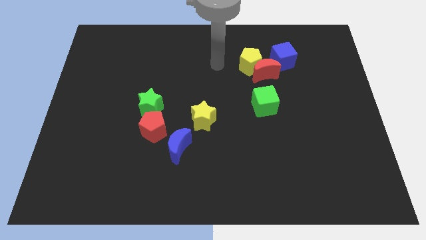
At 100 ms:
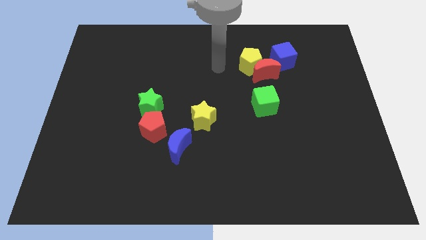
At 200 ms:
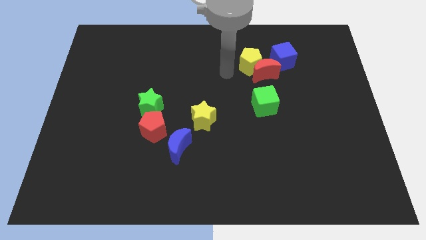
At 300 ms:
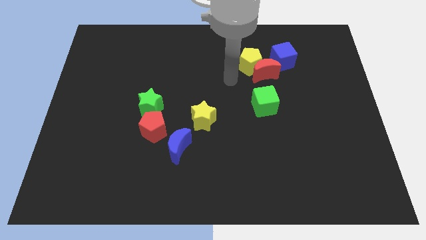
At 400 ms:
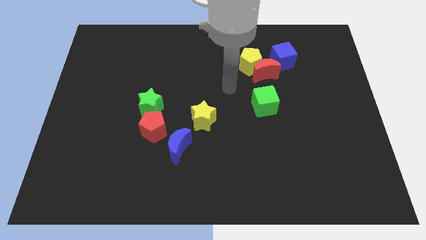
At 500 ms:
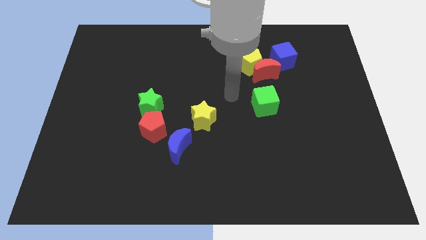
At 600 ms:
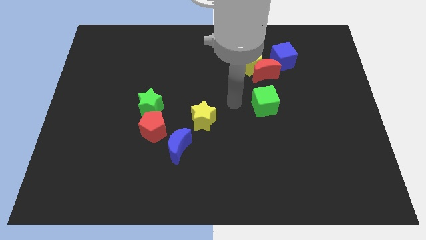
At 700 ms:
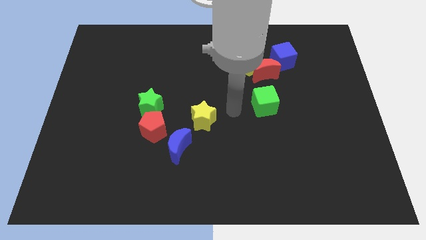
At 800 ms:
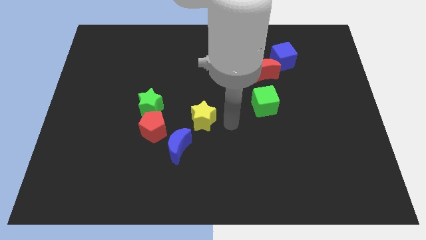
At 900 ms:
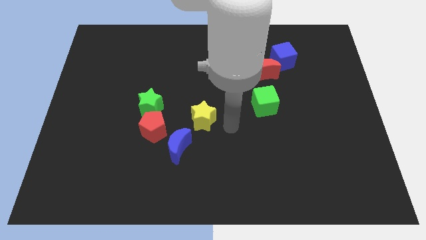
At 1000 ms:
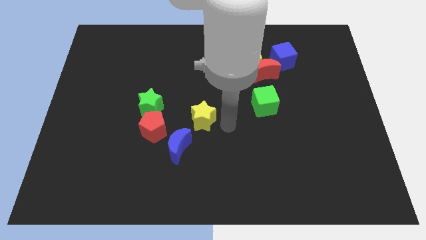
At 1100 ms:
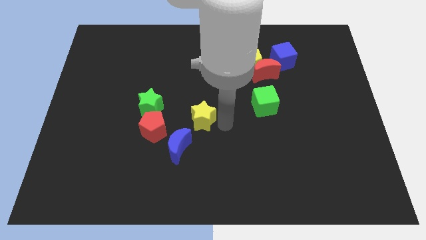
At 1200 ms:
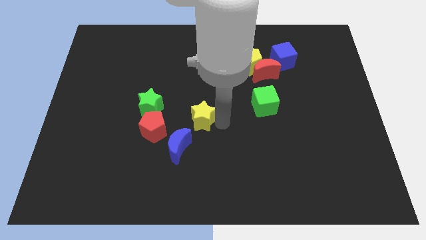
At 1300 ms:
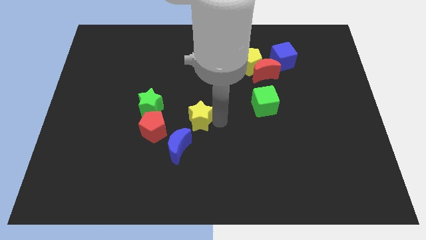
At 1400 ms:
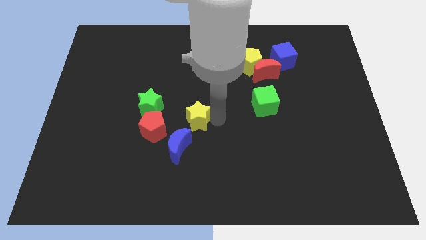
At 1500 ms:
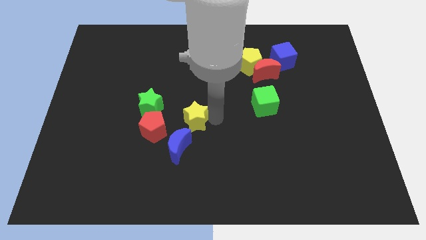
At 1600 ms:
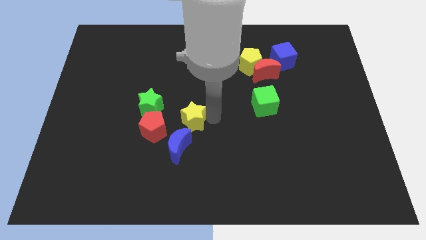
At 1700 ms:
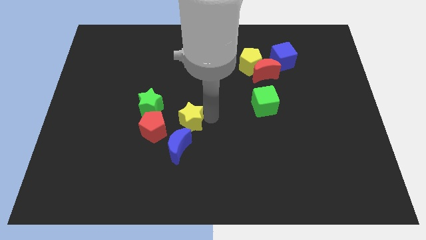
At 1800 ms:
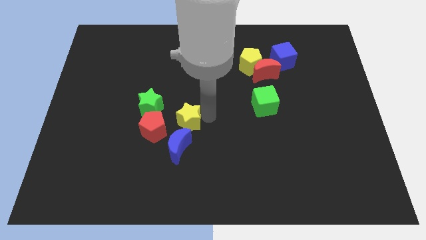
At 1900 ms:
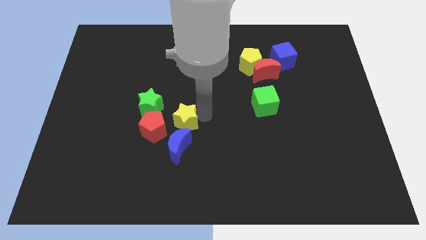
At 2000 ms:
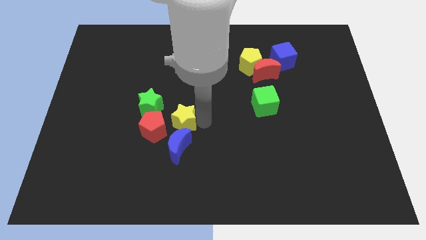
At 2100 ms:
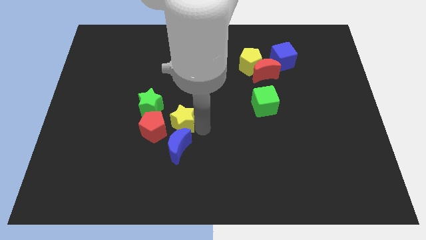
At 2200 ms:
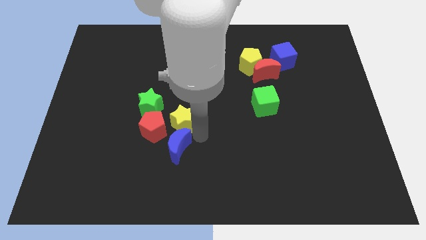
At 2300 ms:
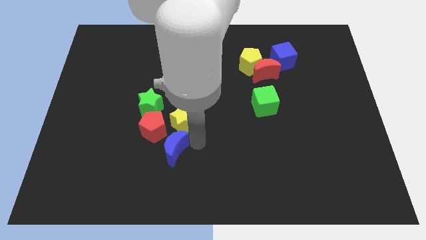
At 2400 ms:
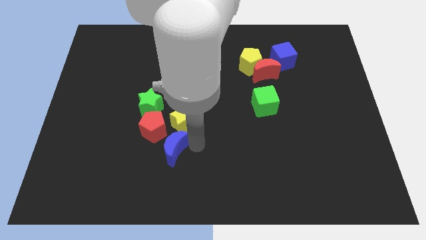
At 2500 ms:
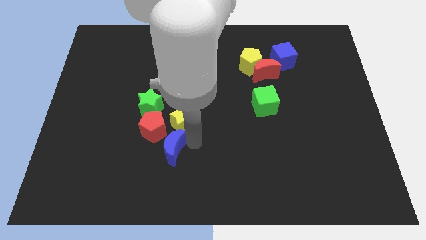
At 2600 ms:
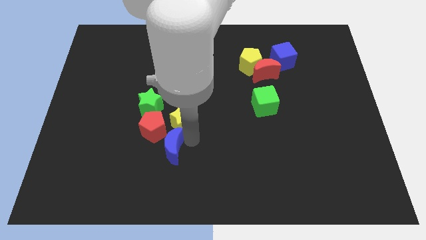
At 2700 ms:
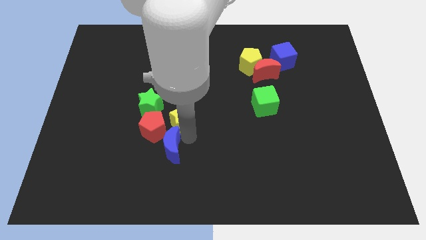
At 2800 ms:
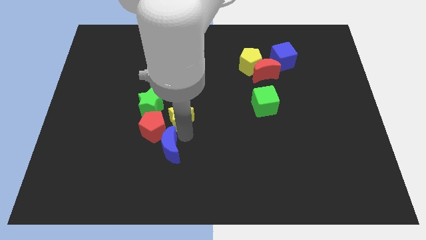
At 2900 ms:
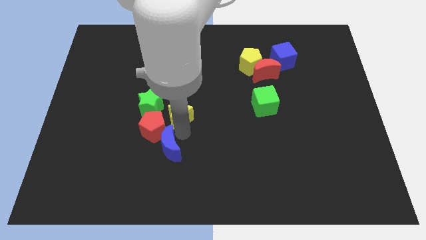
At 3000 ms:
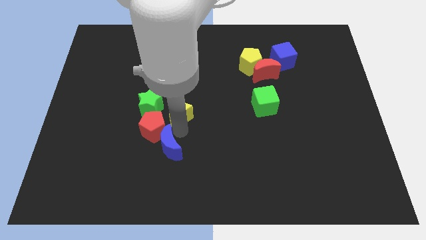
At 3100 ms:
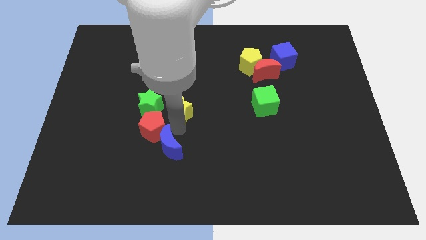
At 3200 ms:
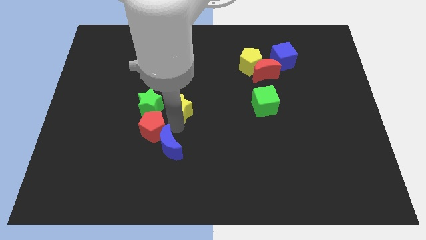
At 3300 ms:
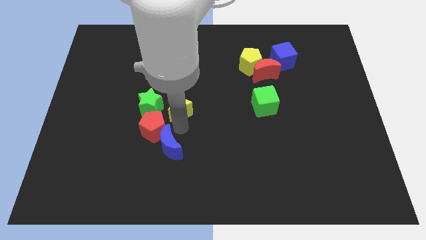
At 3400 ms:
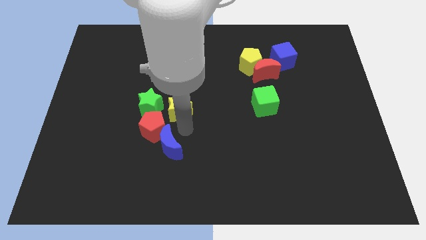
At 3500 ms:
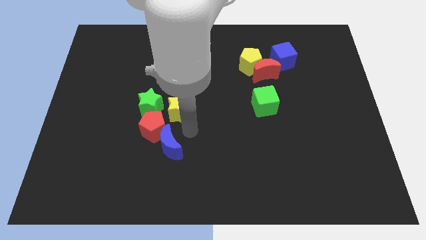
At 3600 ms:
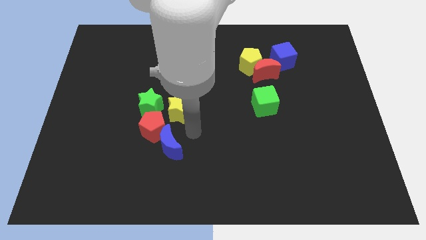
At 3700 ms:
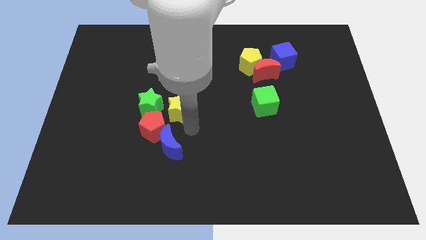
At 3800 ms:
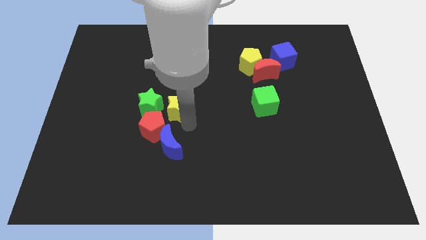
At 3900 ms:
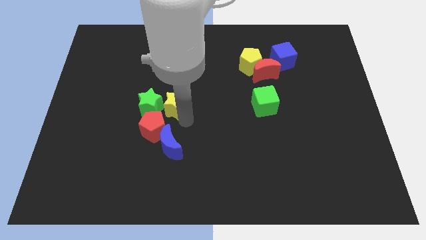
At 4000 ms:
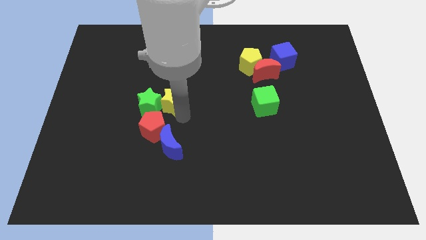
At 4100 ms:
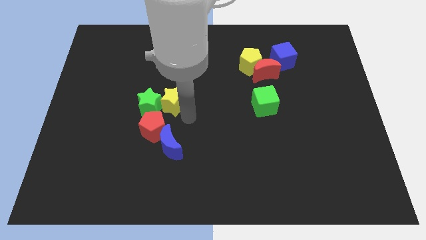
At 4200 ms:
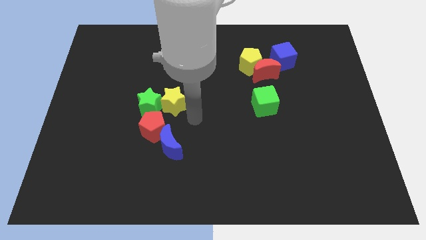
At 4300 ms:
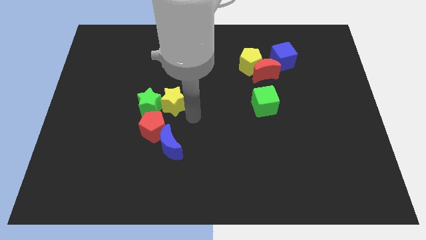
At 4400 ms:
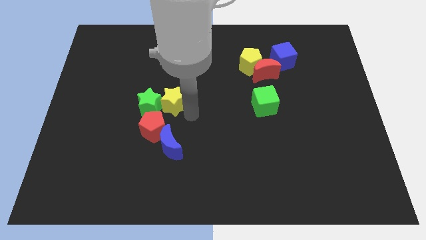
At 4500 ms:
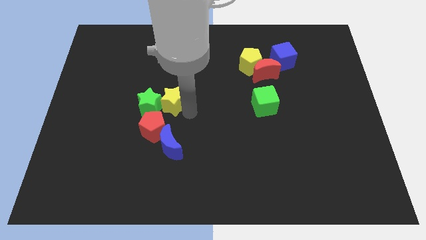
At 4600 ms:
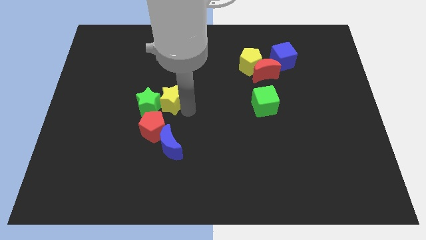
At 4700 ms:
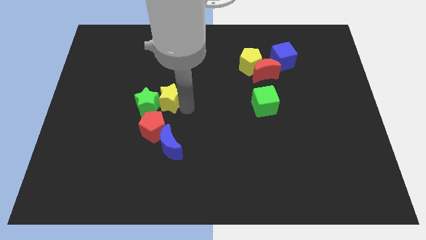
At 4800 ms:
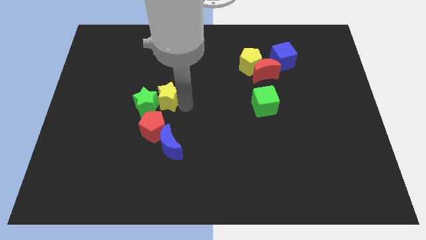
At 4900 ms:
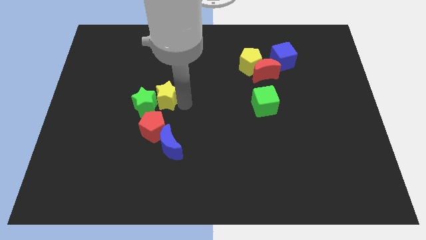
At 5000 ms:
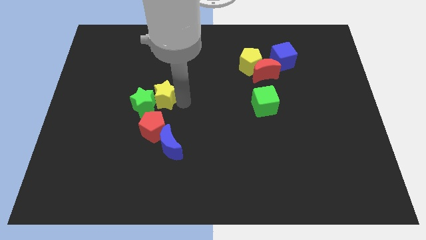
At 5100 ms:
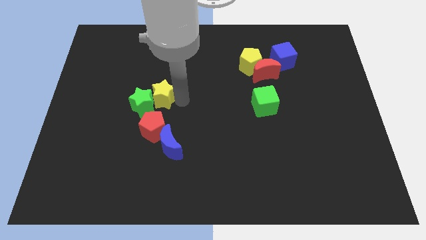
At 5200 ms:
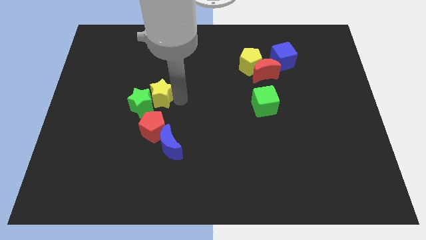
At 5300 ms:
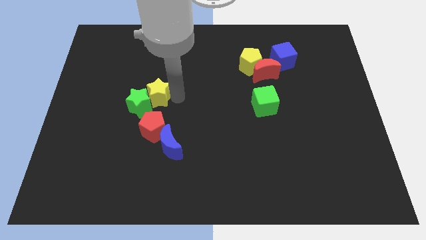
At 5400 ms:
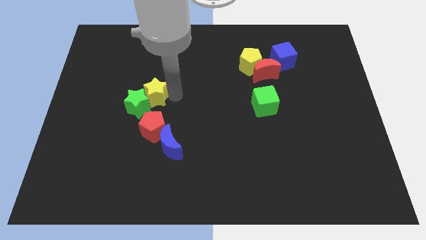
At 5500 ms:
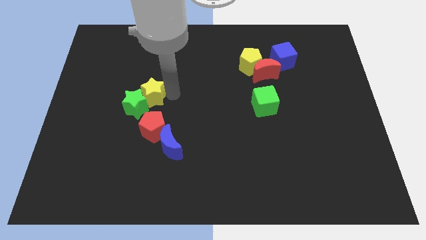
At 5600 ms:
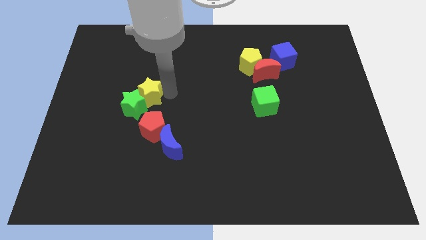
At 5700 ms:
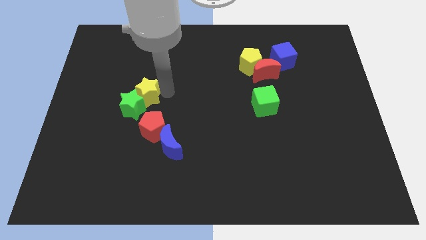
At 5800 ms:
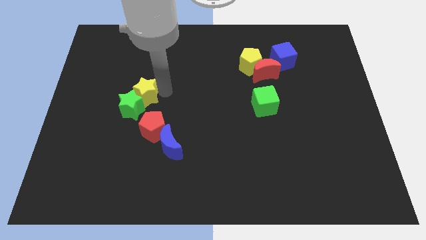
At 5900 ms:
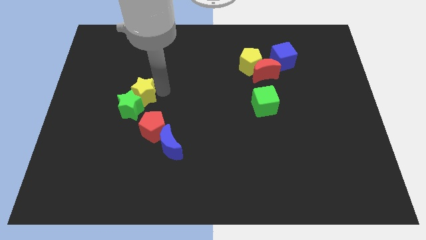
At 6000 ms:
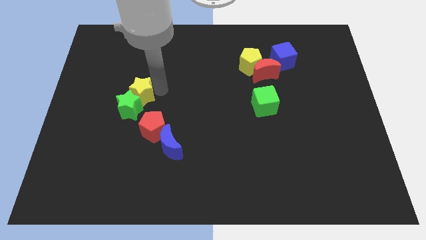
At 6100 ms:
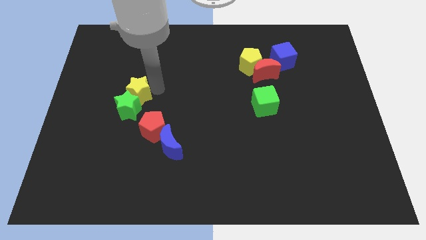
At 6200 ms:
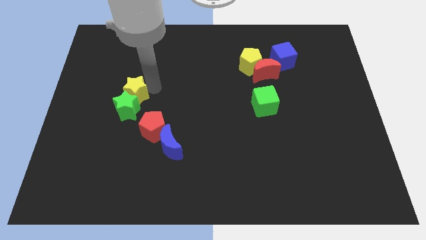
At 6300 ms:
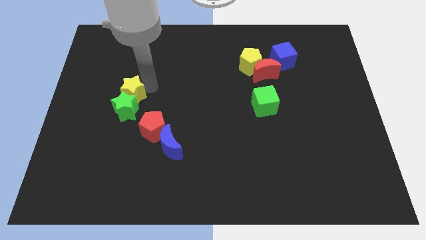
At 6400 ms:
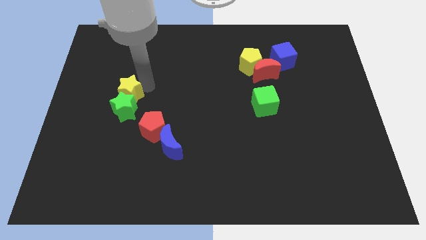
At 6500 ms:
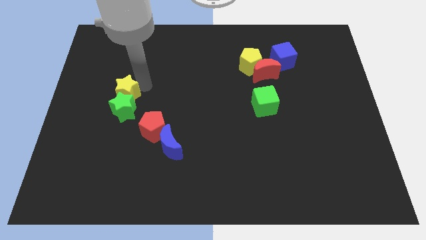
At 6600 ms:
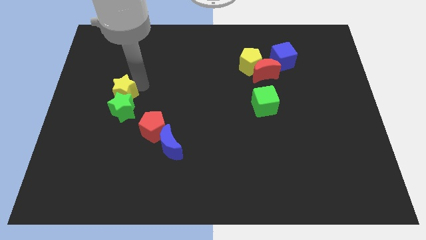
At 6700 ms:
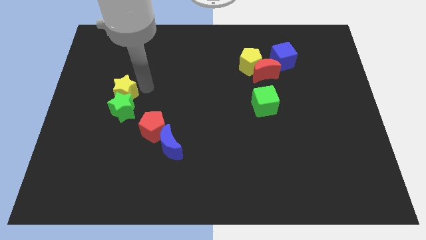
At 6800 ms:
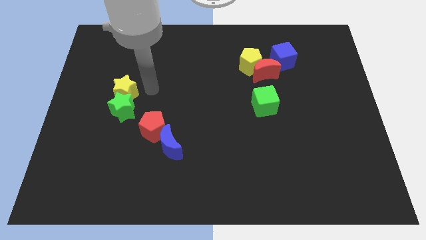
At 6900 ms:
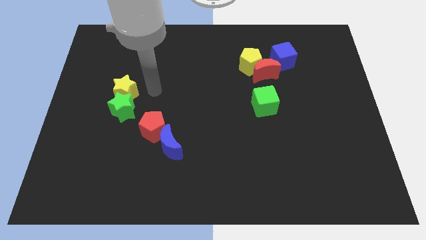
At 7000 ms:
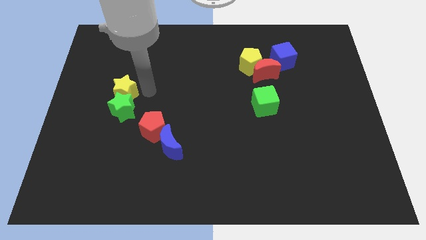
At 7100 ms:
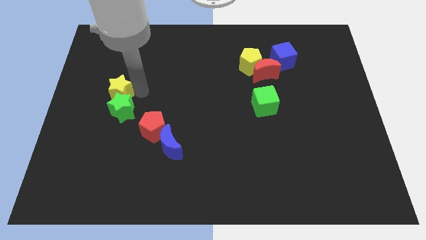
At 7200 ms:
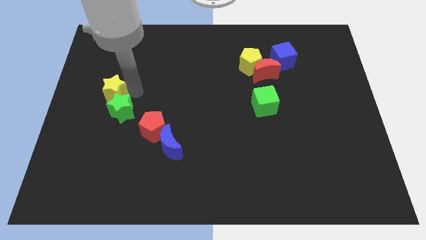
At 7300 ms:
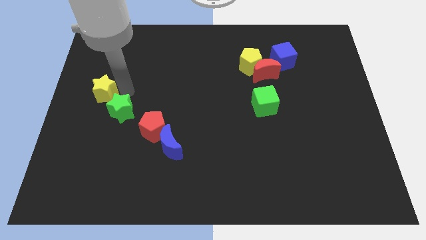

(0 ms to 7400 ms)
slide the yellow star to the center left

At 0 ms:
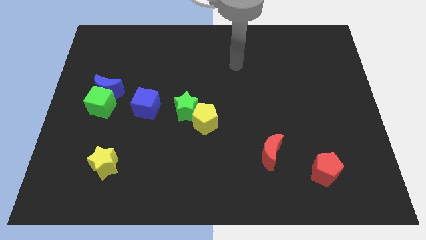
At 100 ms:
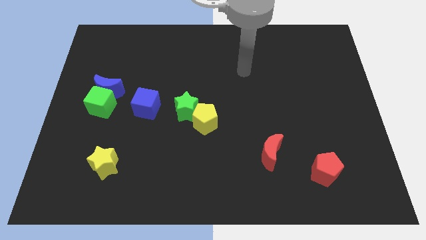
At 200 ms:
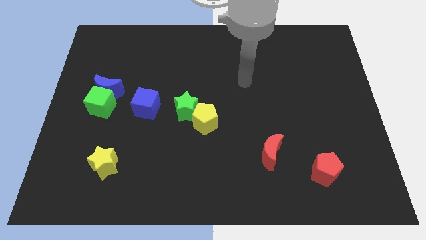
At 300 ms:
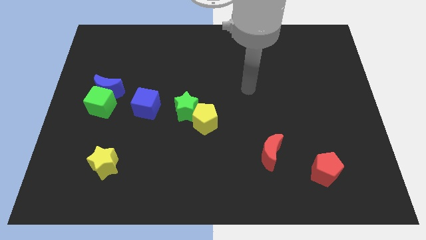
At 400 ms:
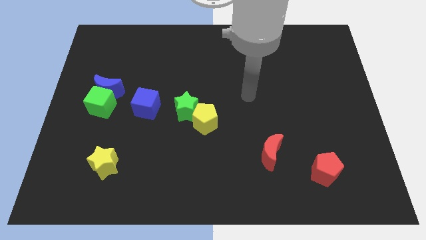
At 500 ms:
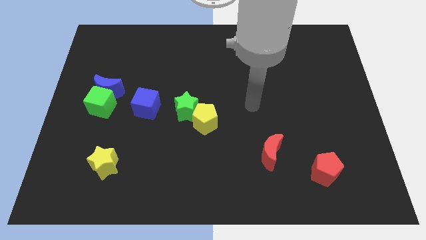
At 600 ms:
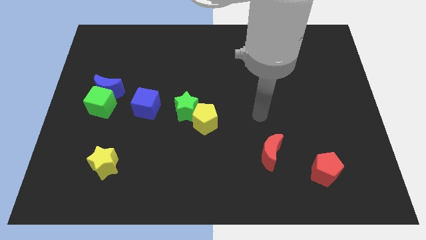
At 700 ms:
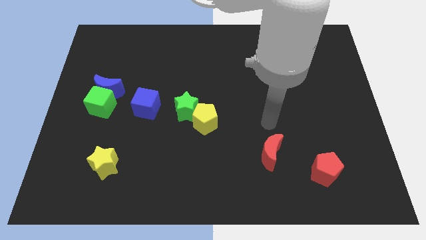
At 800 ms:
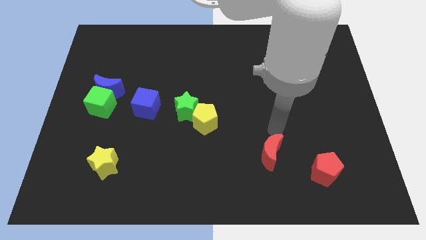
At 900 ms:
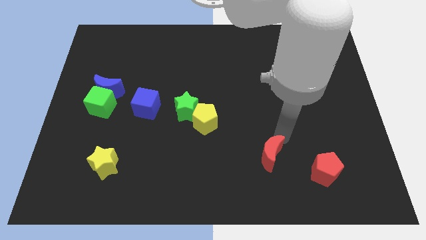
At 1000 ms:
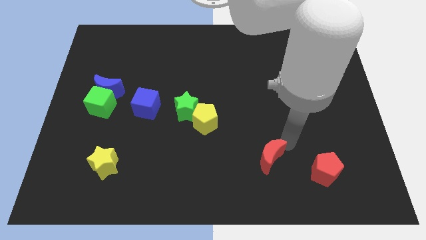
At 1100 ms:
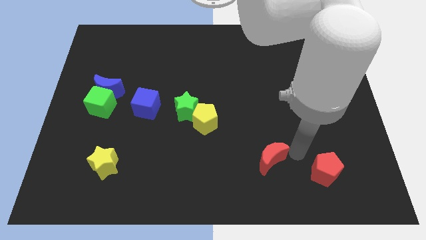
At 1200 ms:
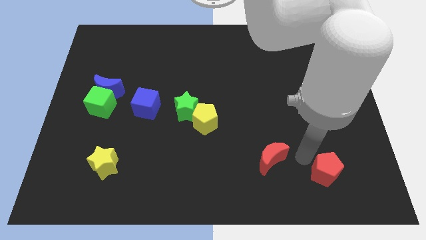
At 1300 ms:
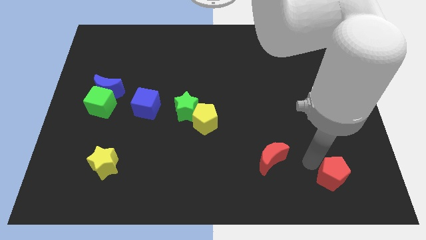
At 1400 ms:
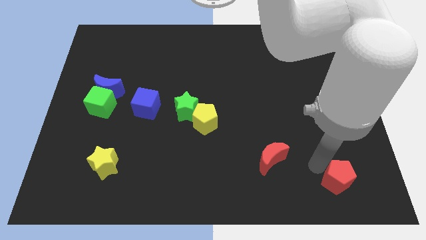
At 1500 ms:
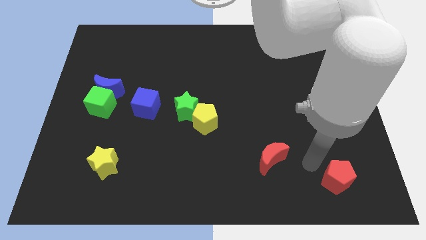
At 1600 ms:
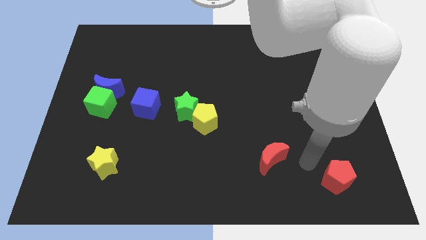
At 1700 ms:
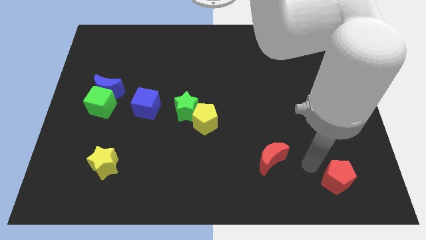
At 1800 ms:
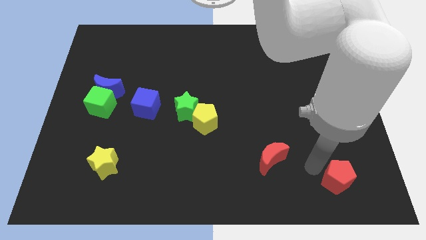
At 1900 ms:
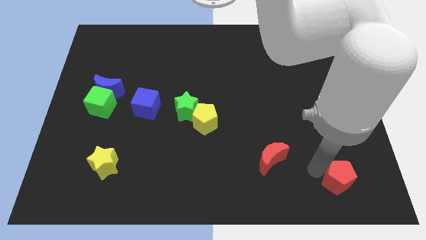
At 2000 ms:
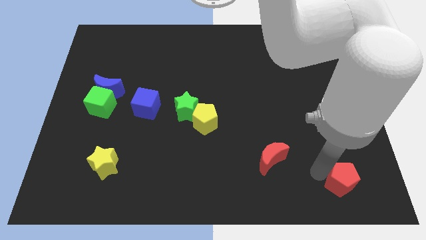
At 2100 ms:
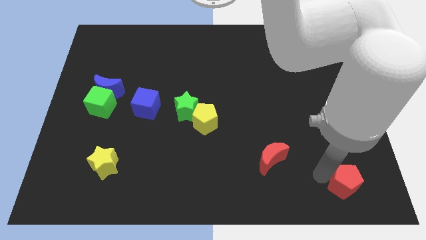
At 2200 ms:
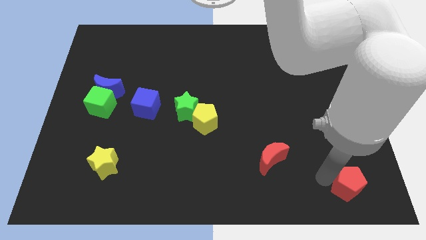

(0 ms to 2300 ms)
move the red pentagon to the bottom right
